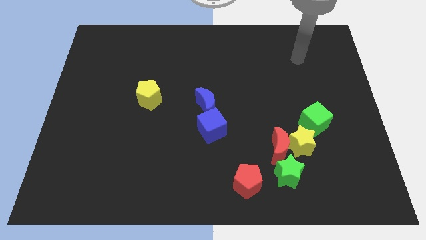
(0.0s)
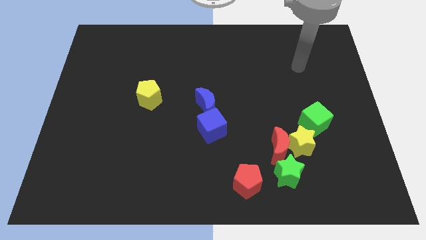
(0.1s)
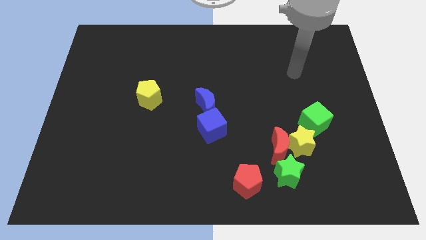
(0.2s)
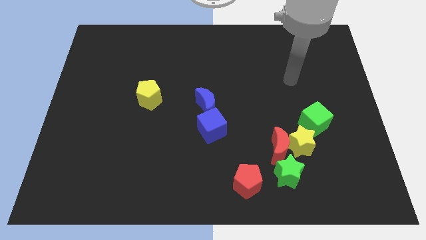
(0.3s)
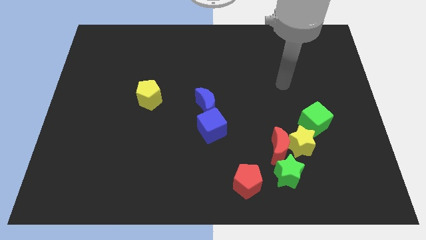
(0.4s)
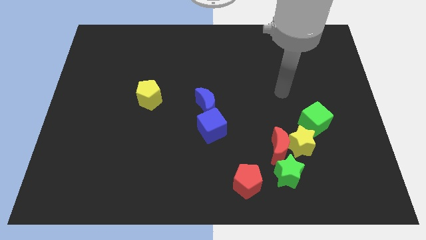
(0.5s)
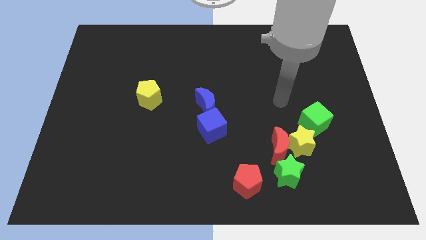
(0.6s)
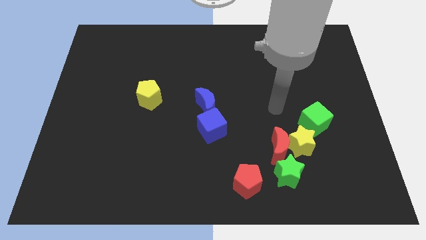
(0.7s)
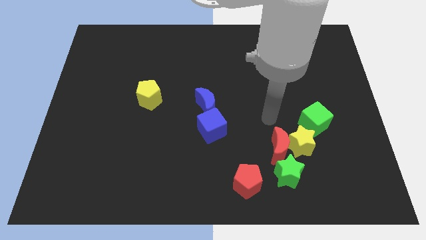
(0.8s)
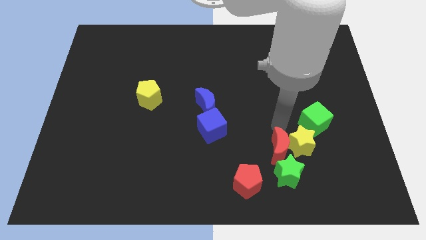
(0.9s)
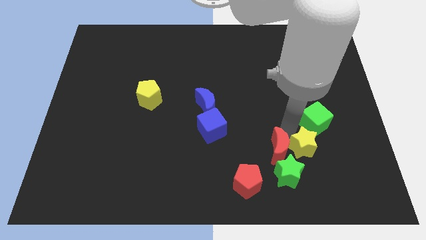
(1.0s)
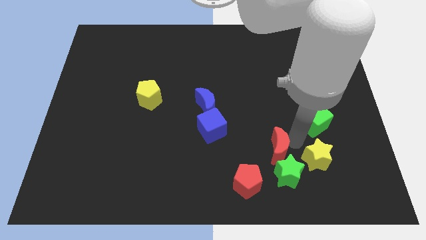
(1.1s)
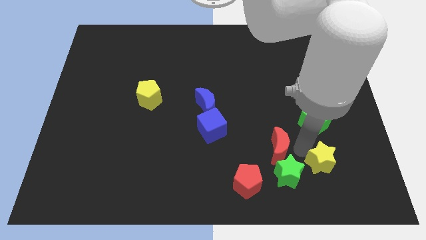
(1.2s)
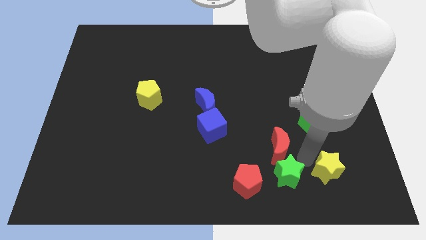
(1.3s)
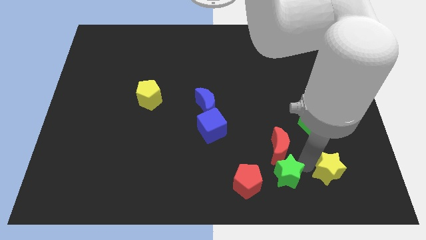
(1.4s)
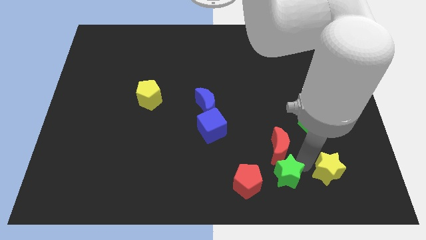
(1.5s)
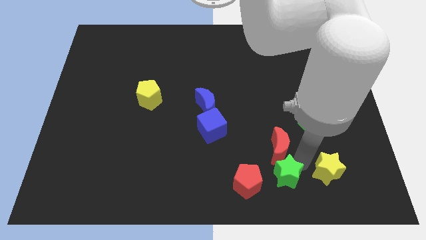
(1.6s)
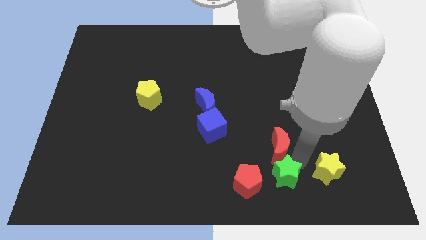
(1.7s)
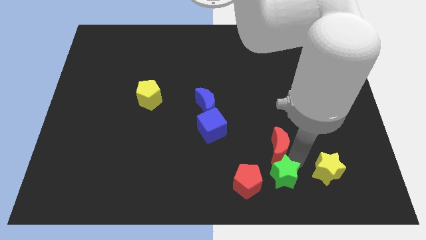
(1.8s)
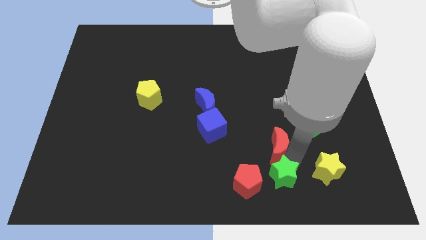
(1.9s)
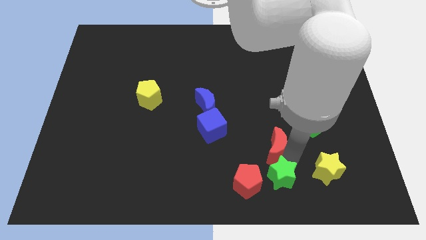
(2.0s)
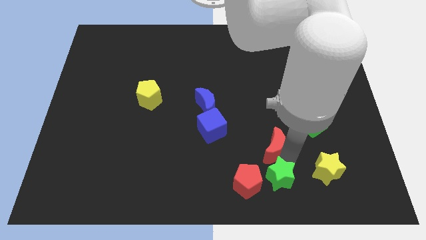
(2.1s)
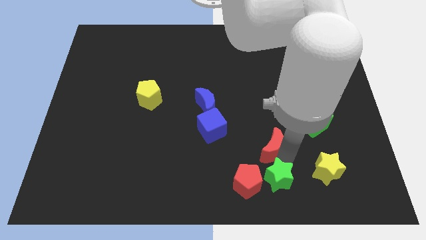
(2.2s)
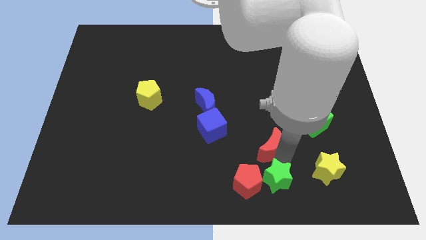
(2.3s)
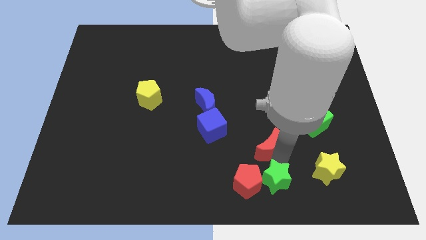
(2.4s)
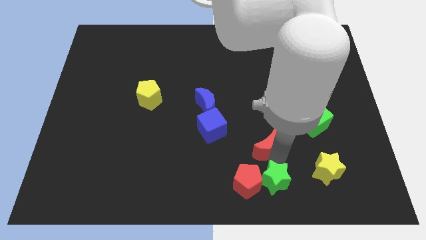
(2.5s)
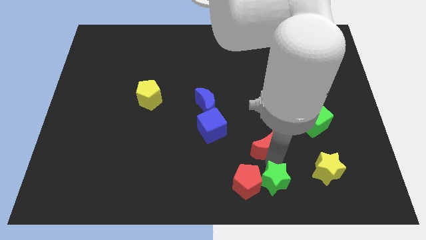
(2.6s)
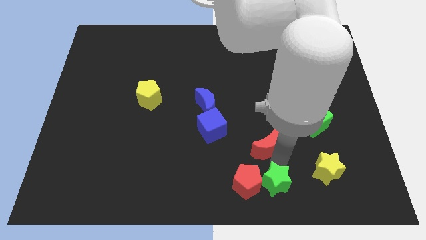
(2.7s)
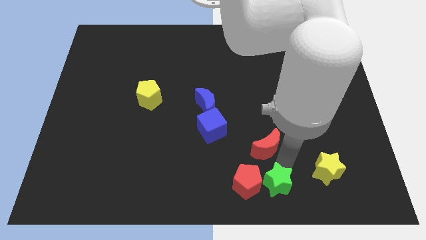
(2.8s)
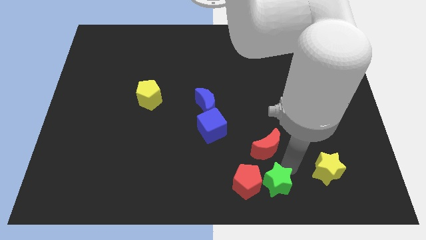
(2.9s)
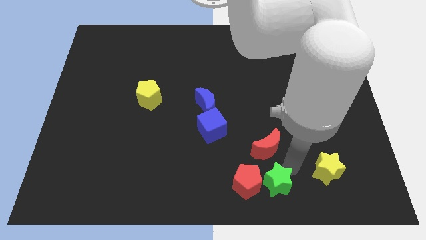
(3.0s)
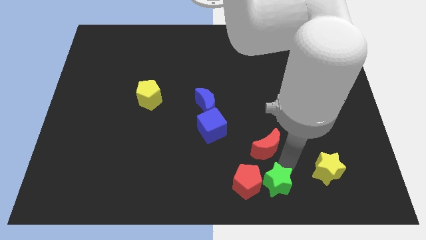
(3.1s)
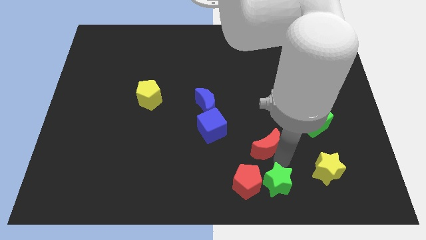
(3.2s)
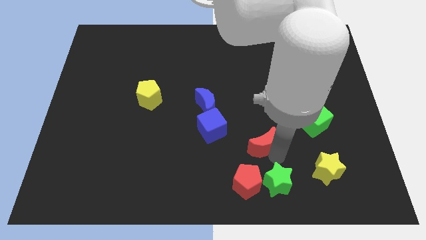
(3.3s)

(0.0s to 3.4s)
separate the red moon from the yellow star and green star

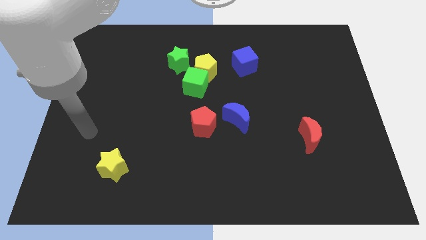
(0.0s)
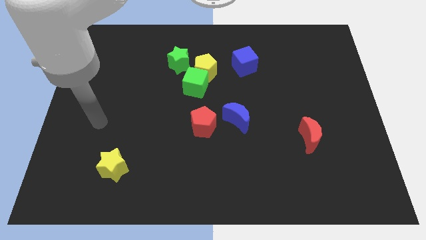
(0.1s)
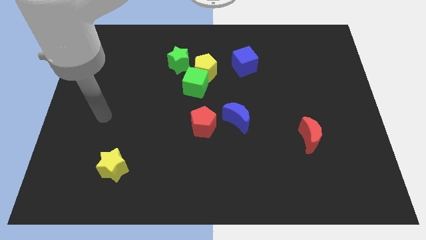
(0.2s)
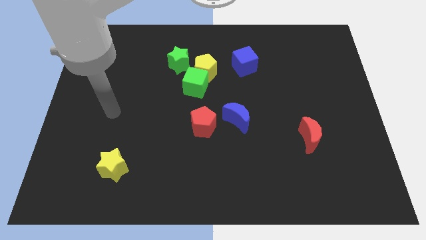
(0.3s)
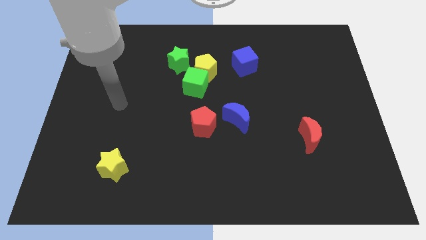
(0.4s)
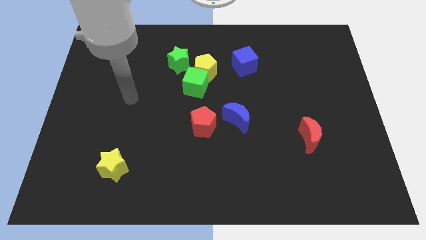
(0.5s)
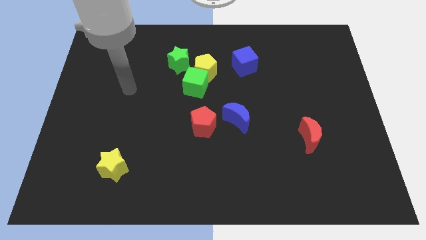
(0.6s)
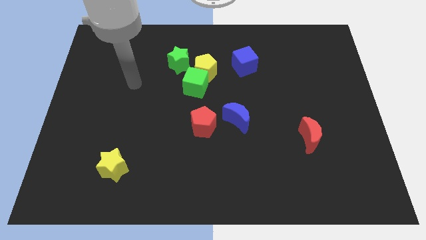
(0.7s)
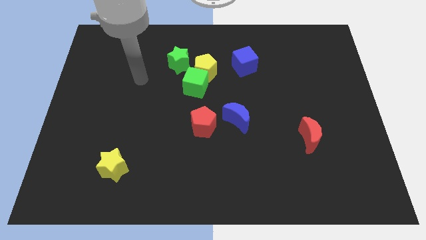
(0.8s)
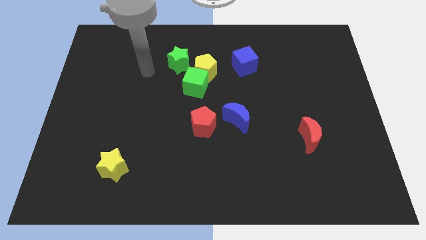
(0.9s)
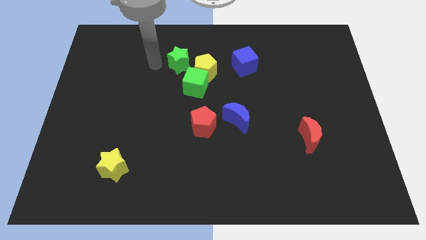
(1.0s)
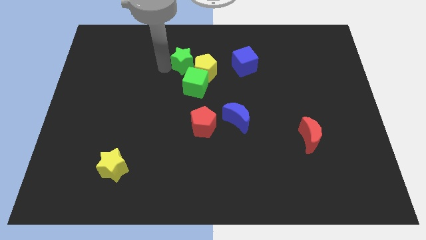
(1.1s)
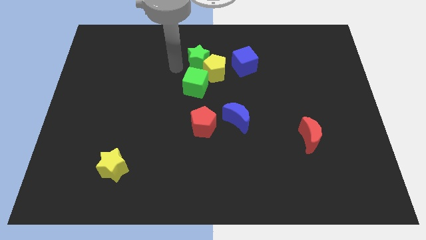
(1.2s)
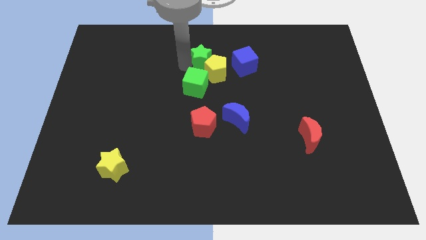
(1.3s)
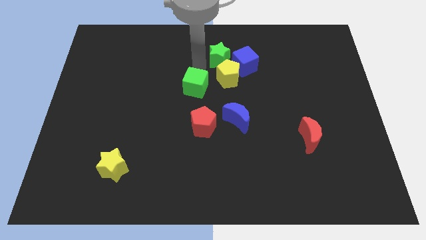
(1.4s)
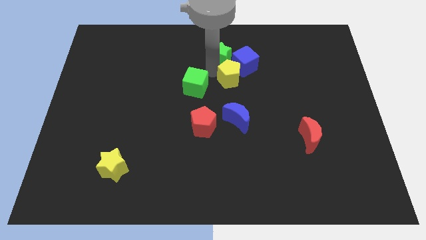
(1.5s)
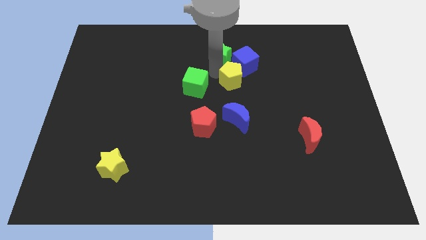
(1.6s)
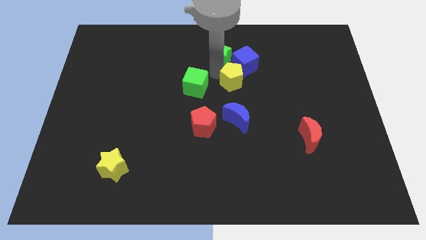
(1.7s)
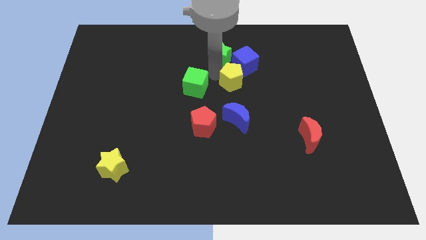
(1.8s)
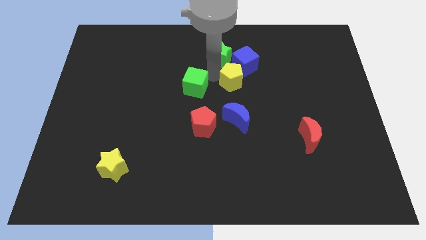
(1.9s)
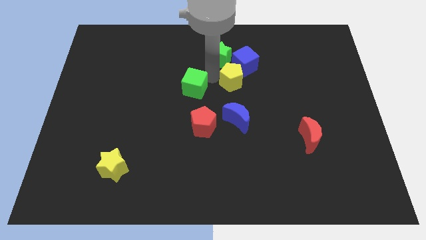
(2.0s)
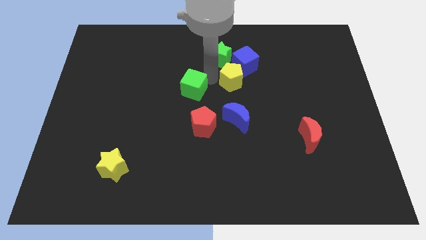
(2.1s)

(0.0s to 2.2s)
pull the green cube apart from the yellow pentagon and green star

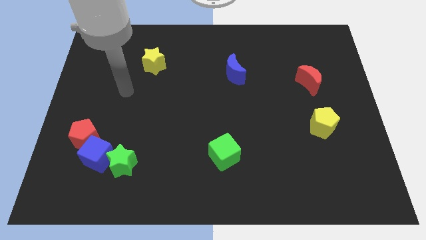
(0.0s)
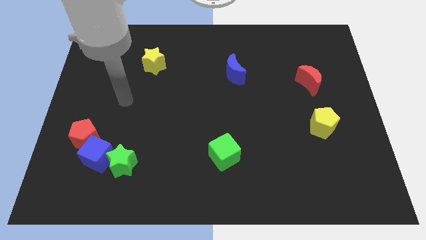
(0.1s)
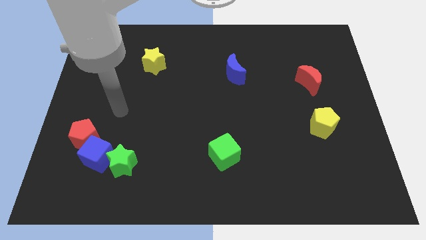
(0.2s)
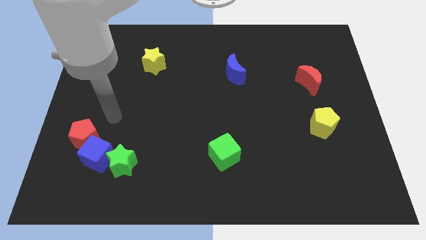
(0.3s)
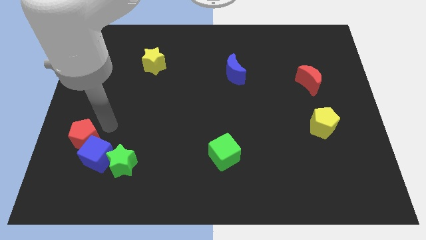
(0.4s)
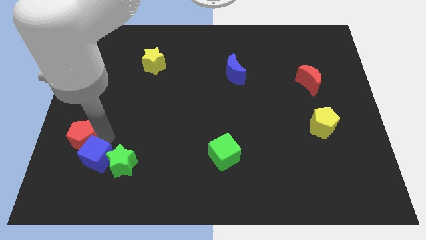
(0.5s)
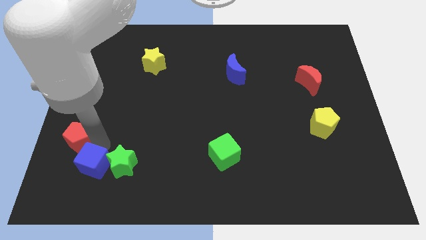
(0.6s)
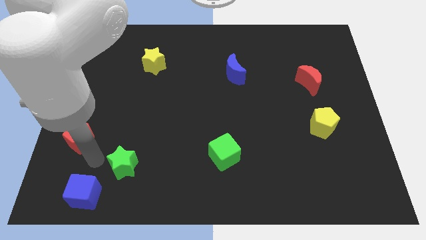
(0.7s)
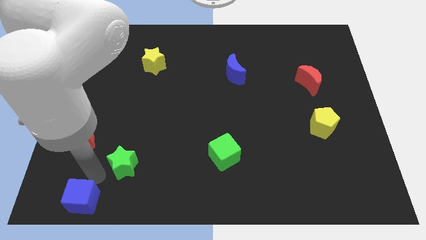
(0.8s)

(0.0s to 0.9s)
move the green star away from the blue cube

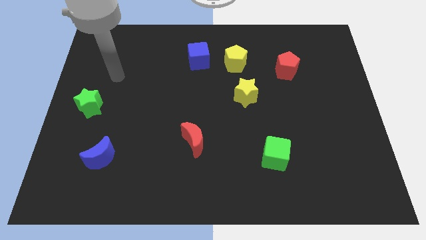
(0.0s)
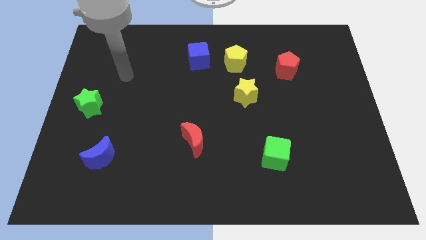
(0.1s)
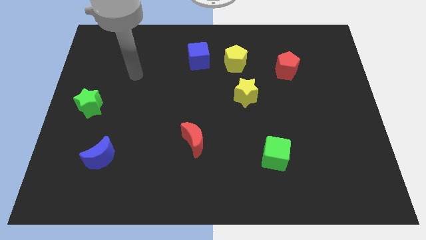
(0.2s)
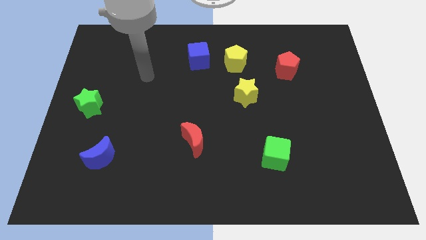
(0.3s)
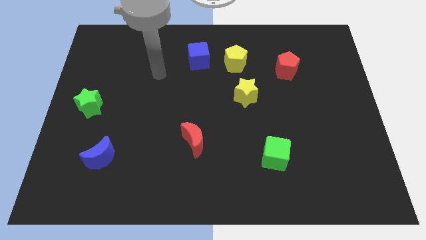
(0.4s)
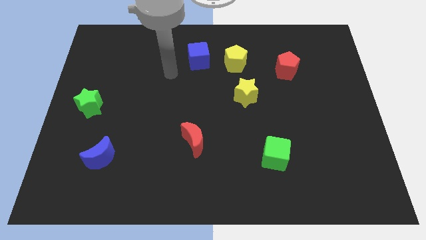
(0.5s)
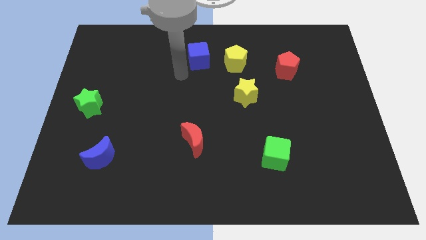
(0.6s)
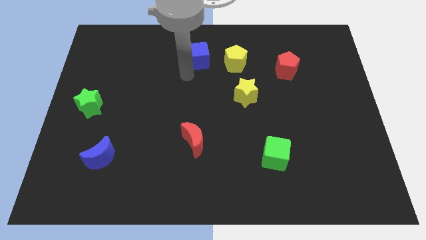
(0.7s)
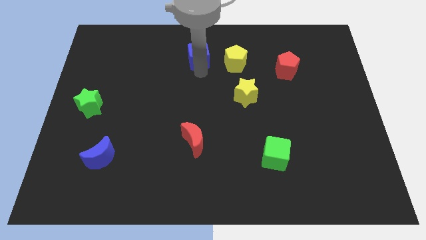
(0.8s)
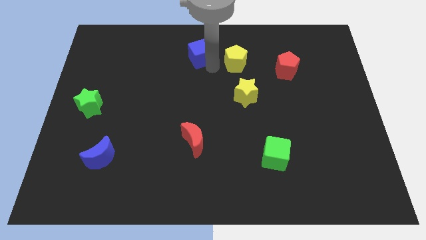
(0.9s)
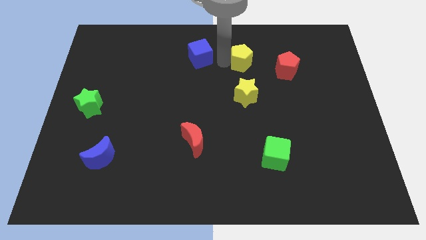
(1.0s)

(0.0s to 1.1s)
separate the blue cube from the yellow pentagon

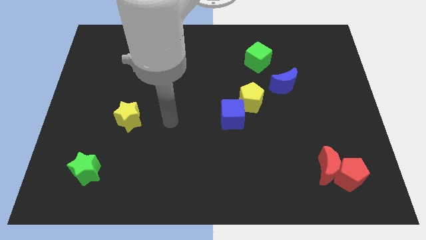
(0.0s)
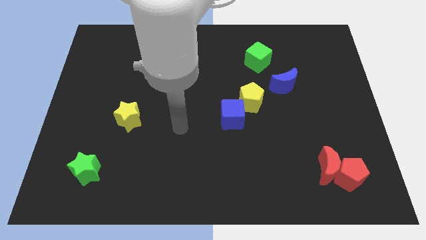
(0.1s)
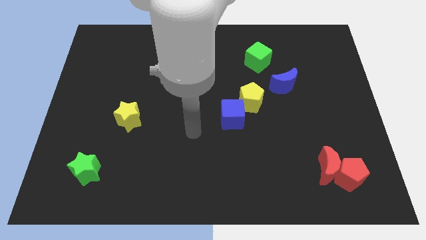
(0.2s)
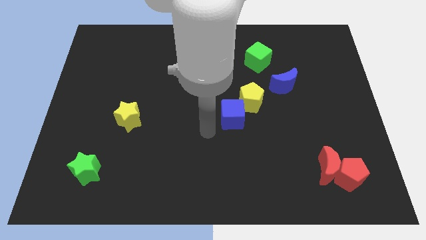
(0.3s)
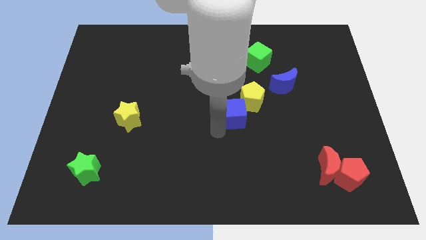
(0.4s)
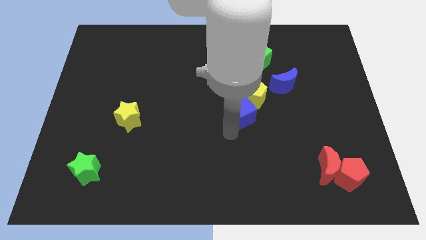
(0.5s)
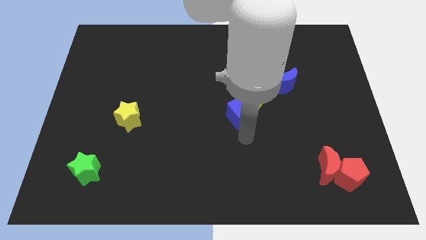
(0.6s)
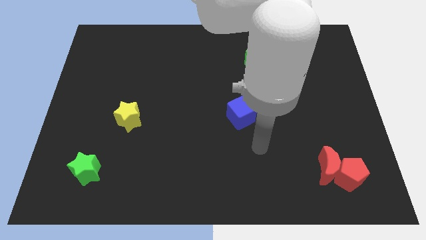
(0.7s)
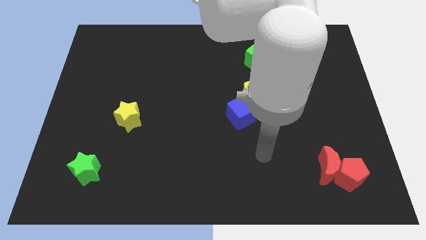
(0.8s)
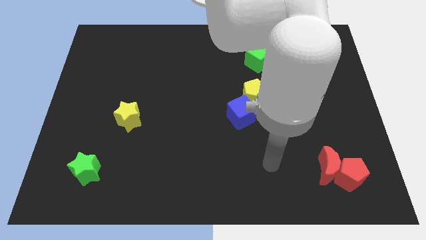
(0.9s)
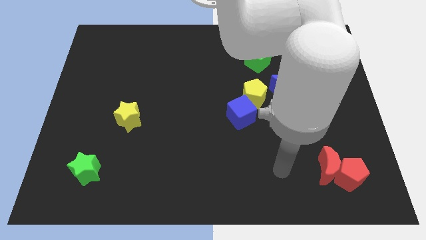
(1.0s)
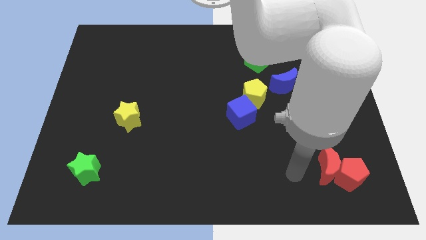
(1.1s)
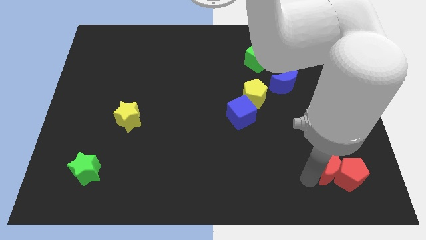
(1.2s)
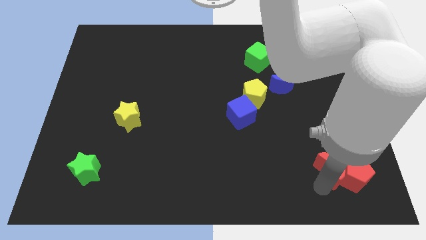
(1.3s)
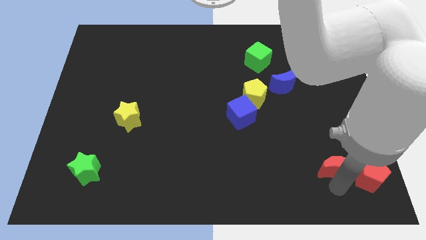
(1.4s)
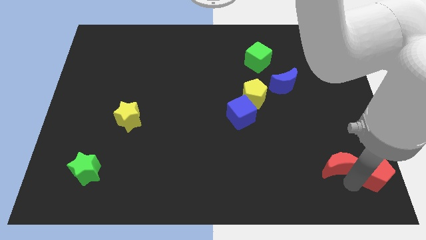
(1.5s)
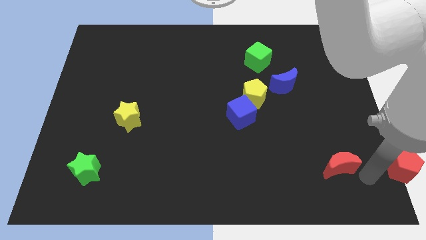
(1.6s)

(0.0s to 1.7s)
move the red moon away from the red pentagon
